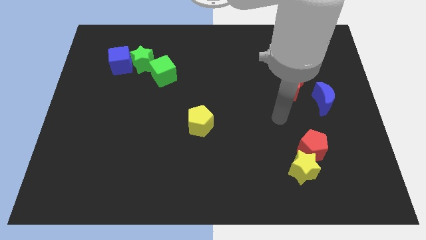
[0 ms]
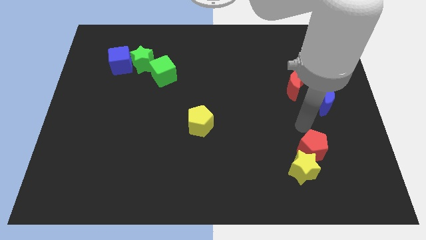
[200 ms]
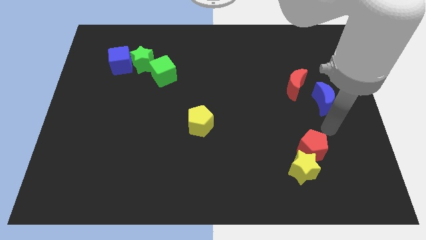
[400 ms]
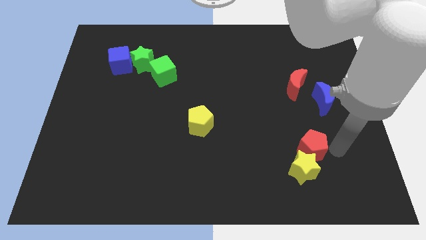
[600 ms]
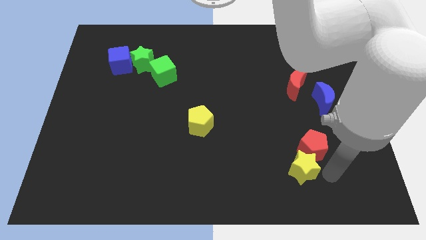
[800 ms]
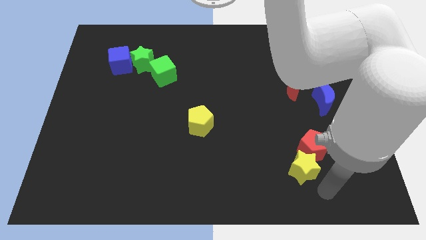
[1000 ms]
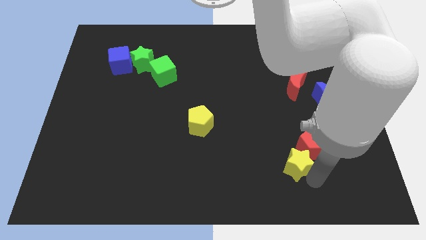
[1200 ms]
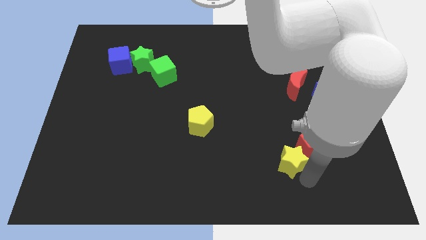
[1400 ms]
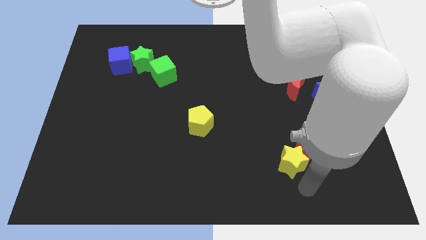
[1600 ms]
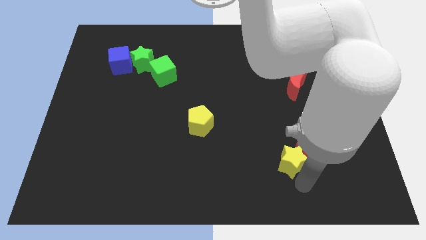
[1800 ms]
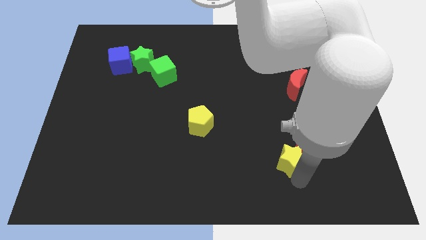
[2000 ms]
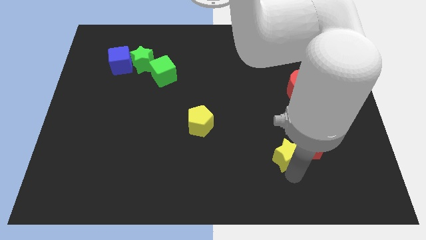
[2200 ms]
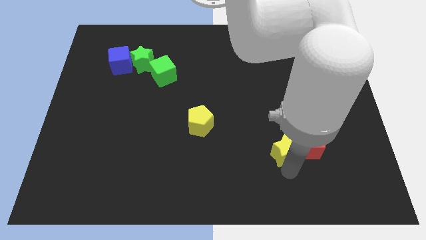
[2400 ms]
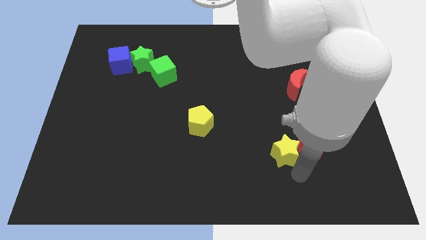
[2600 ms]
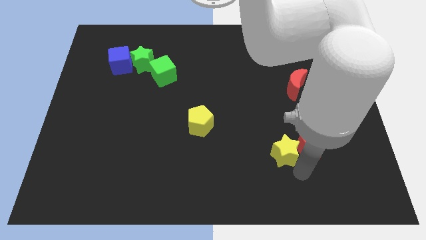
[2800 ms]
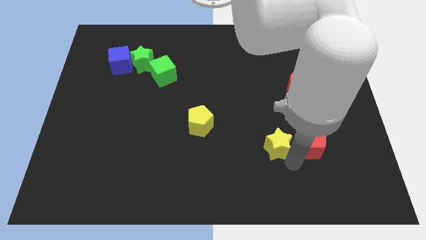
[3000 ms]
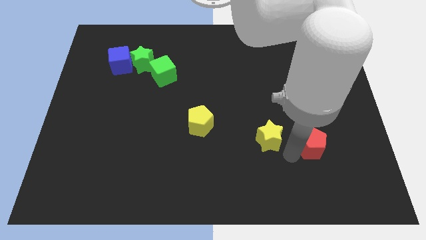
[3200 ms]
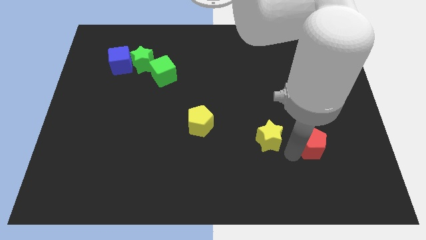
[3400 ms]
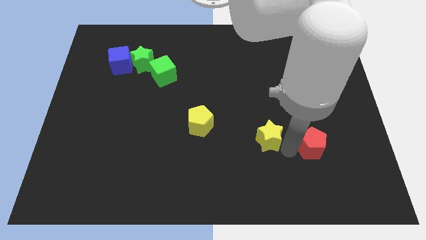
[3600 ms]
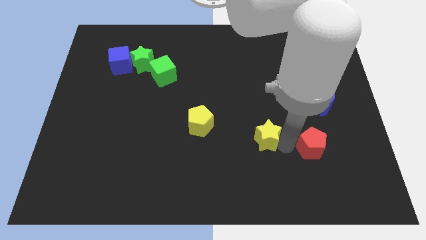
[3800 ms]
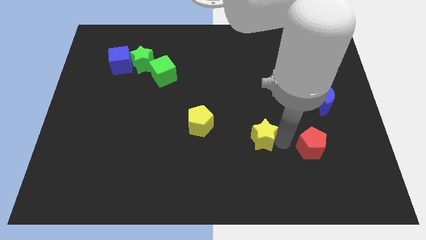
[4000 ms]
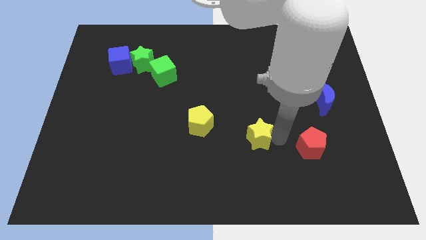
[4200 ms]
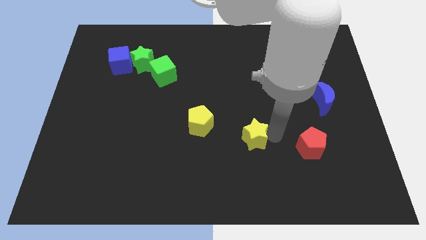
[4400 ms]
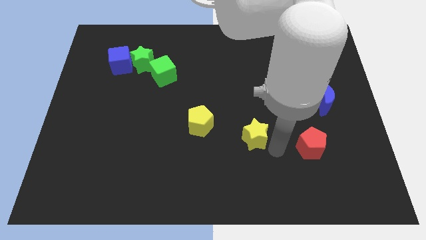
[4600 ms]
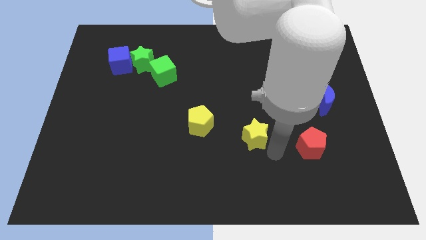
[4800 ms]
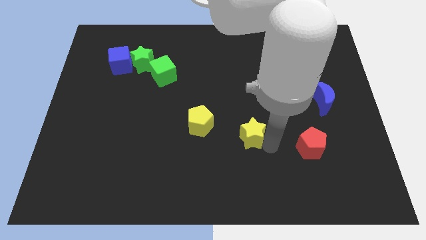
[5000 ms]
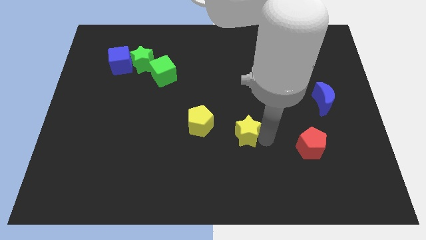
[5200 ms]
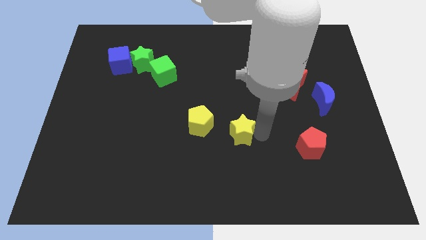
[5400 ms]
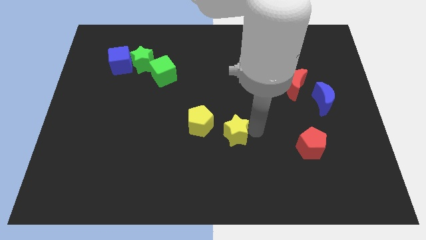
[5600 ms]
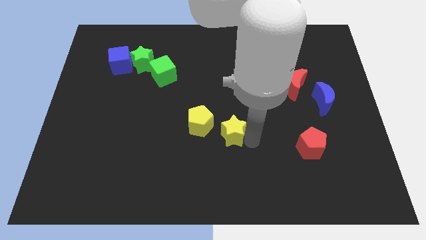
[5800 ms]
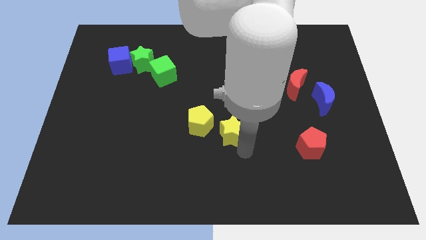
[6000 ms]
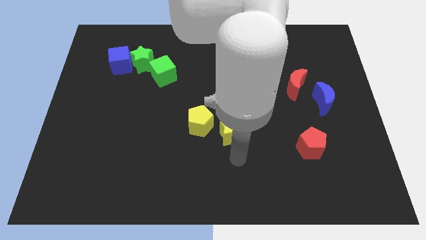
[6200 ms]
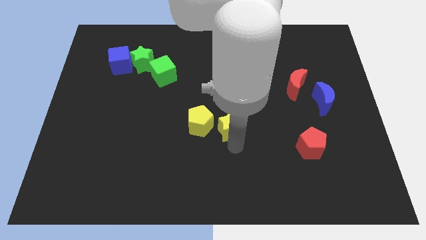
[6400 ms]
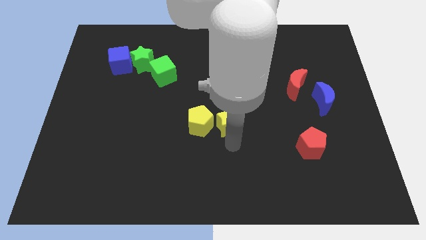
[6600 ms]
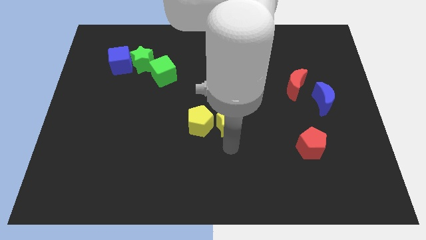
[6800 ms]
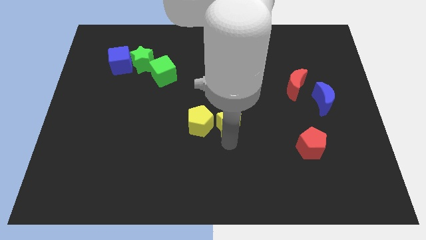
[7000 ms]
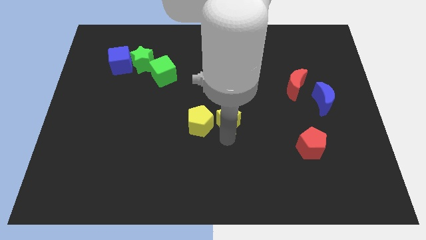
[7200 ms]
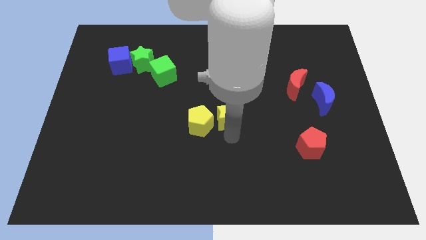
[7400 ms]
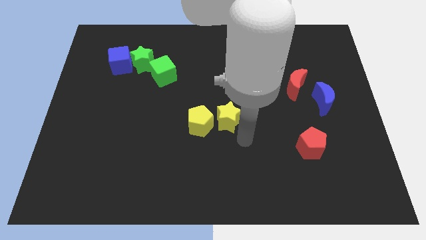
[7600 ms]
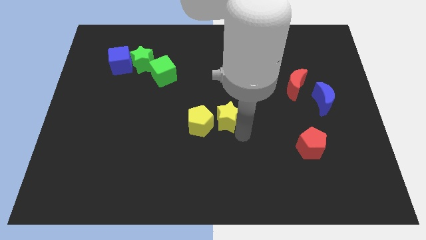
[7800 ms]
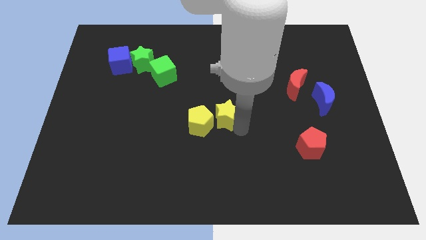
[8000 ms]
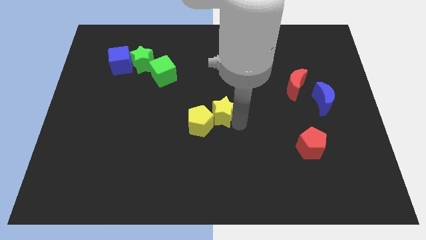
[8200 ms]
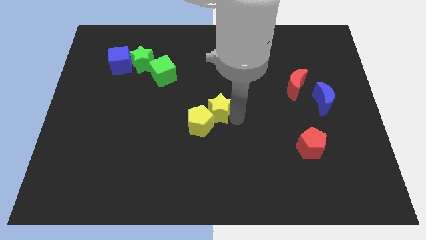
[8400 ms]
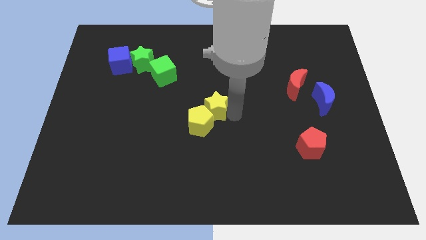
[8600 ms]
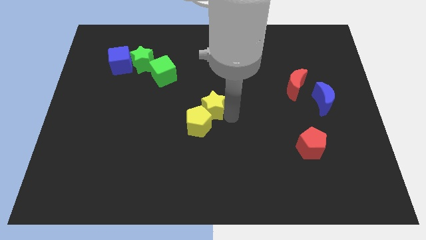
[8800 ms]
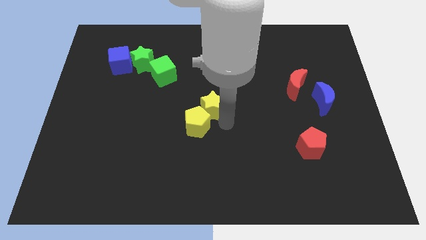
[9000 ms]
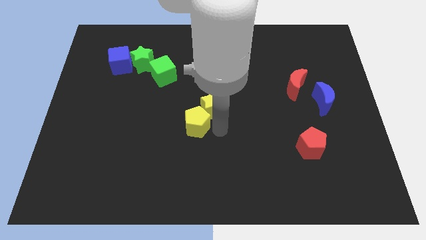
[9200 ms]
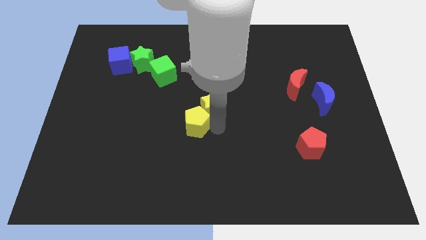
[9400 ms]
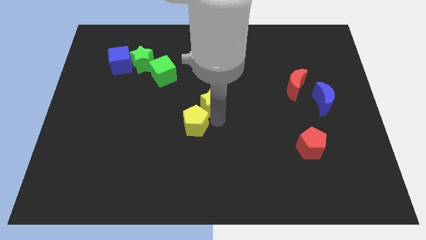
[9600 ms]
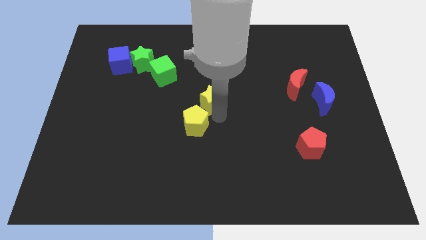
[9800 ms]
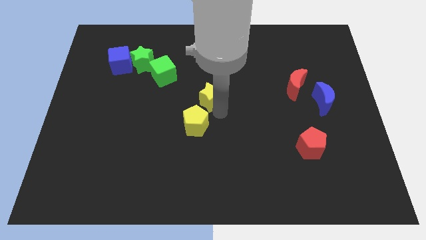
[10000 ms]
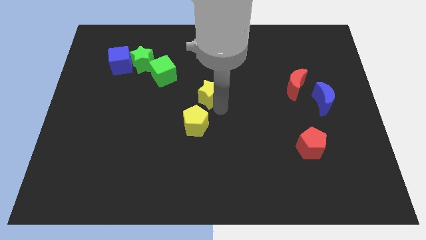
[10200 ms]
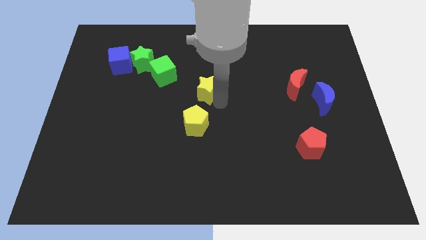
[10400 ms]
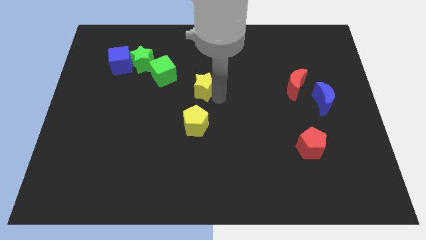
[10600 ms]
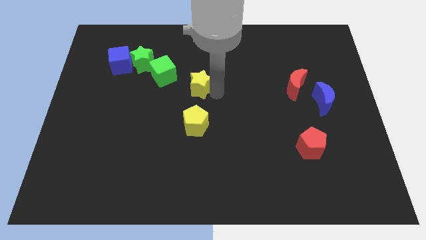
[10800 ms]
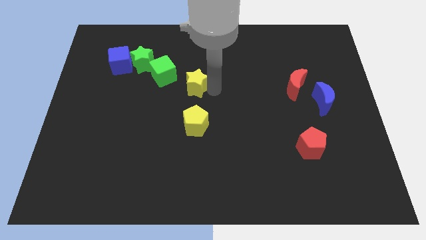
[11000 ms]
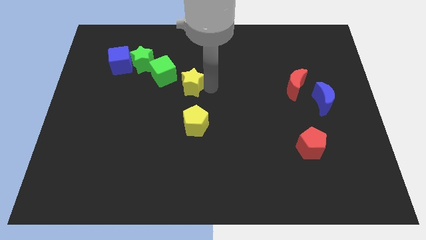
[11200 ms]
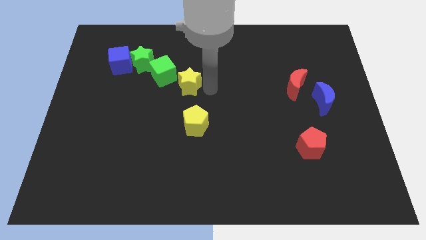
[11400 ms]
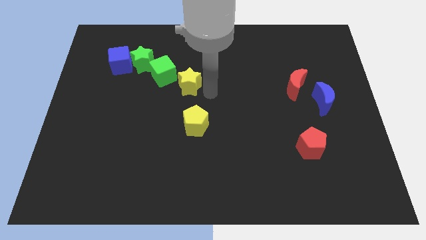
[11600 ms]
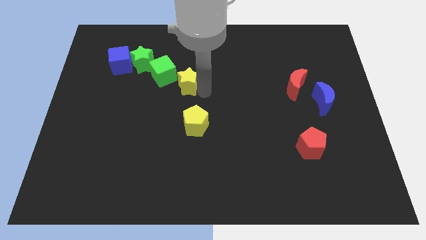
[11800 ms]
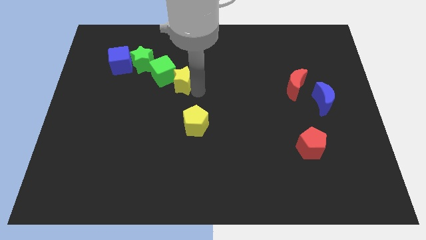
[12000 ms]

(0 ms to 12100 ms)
move the yellow star close to the green cube

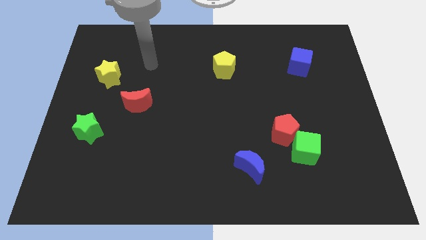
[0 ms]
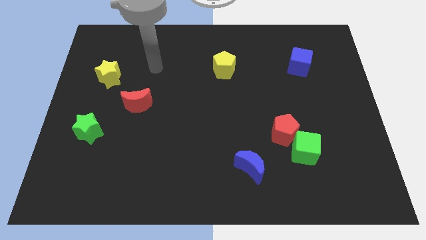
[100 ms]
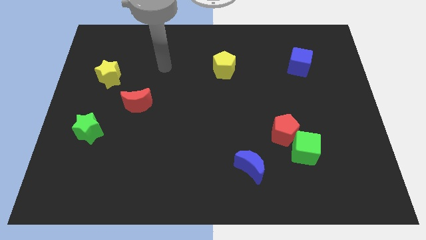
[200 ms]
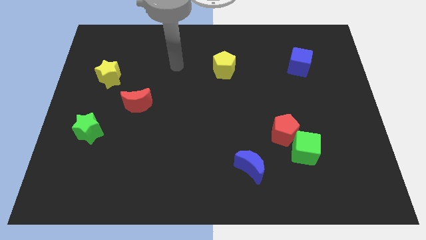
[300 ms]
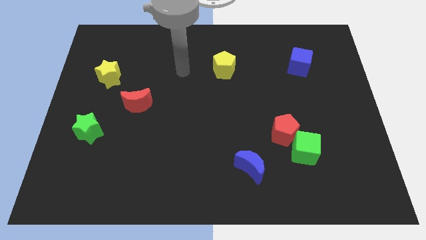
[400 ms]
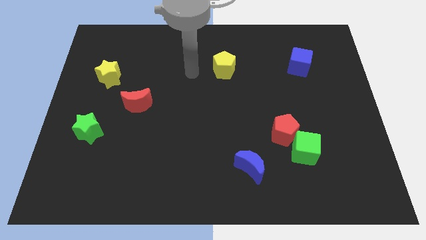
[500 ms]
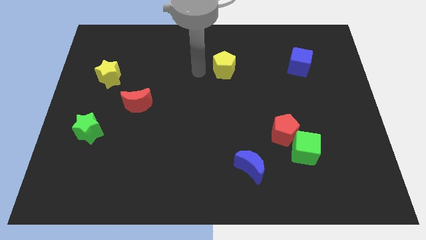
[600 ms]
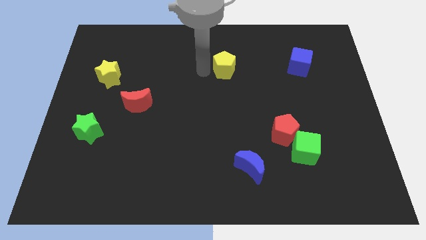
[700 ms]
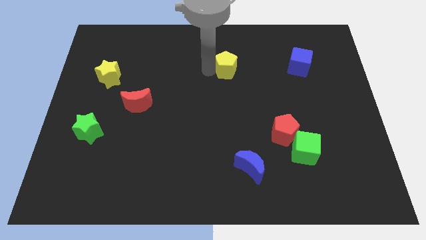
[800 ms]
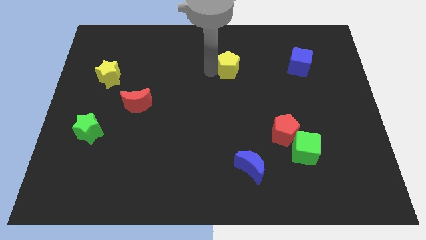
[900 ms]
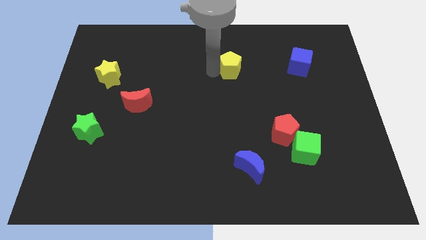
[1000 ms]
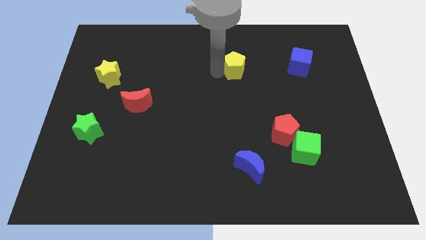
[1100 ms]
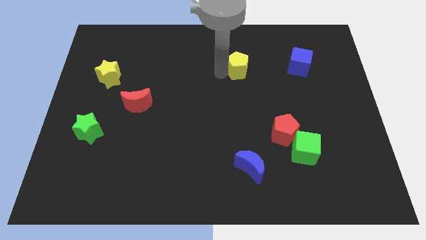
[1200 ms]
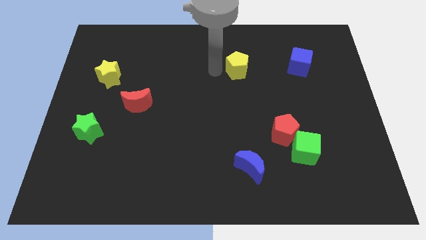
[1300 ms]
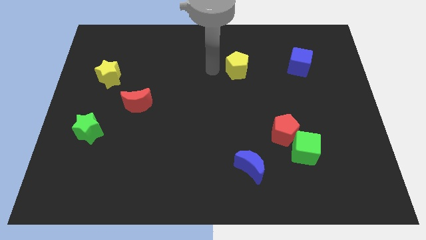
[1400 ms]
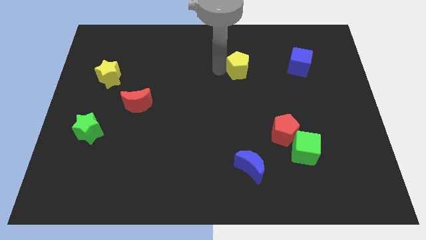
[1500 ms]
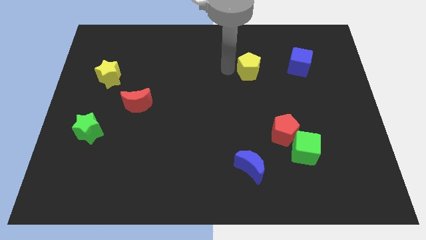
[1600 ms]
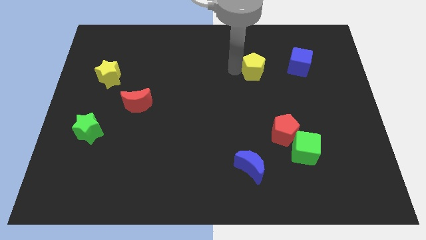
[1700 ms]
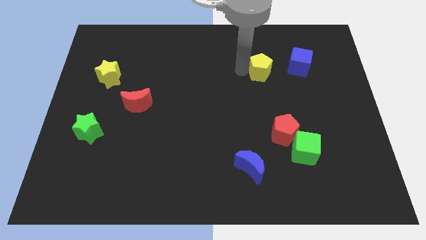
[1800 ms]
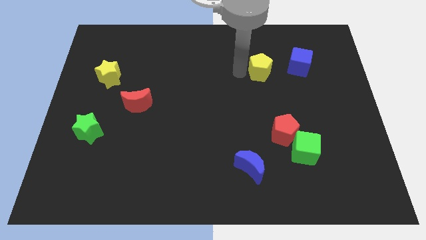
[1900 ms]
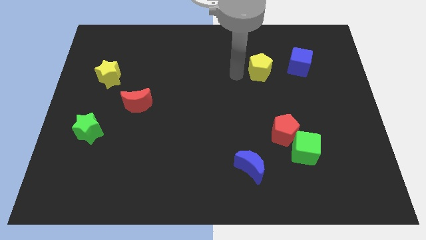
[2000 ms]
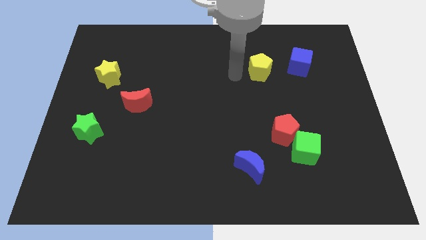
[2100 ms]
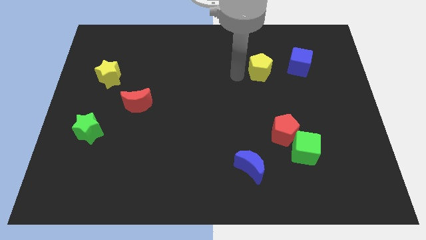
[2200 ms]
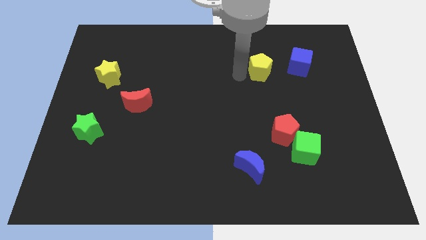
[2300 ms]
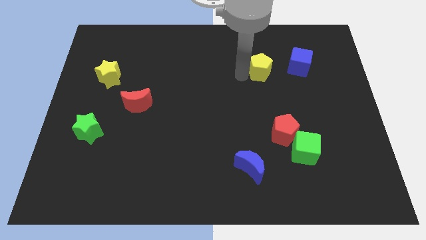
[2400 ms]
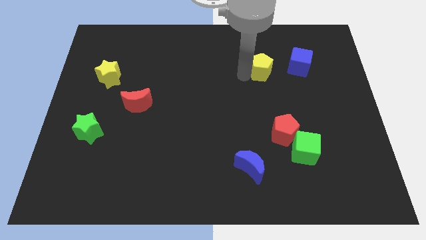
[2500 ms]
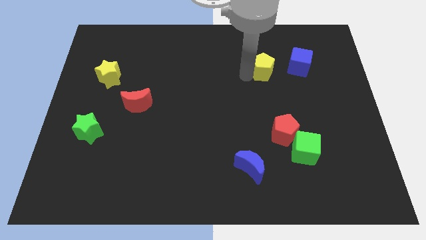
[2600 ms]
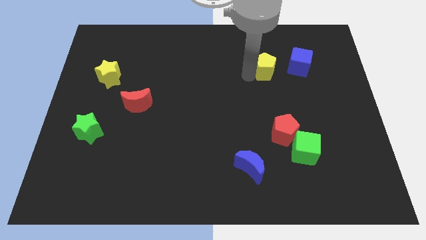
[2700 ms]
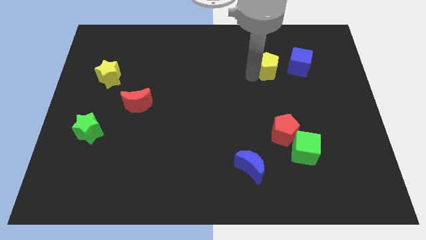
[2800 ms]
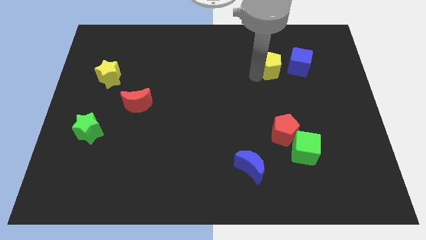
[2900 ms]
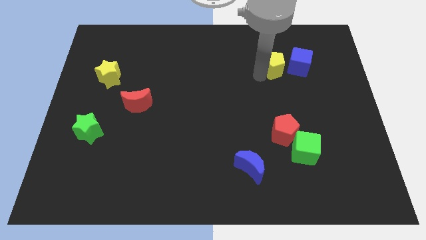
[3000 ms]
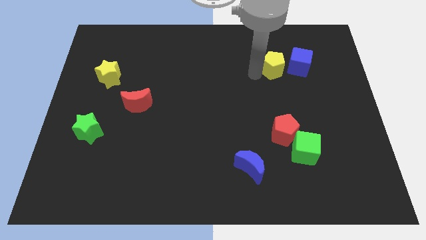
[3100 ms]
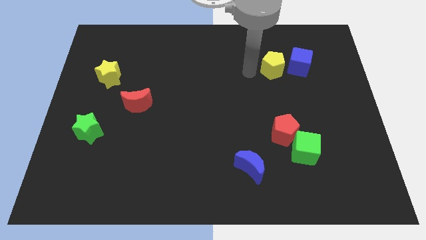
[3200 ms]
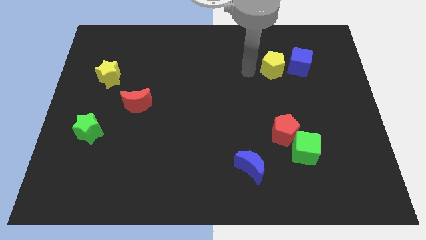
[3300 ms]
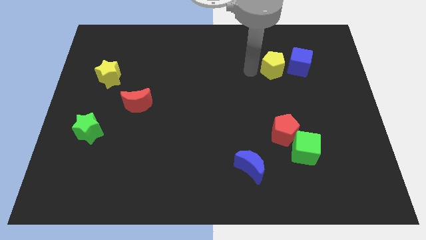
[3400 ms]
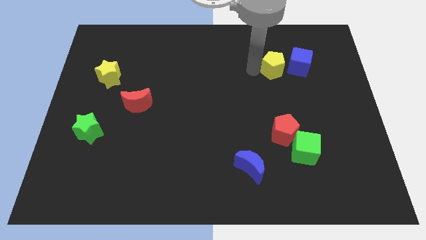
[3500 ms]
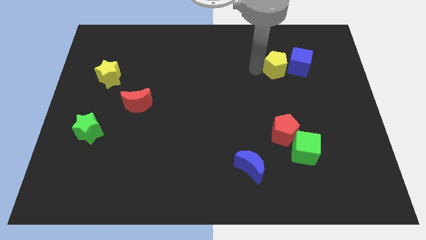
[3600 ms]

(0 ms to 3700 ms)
put the yellow pentagon next to the blue cube
